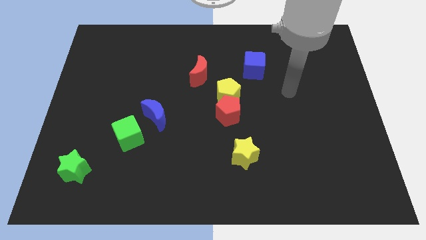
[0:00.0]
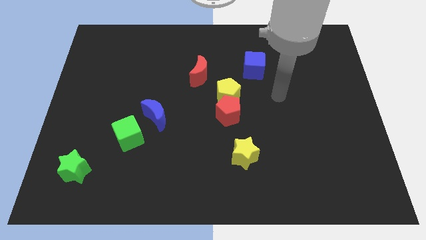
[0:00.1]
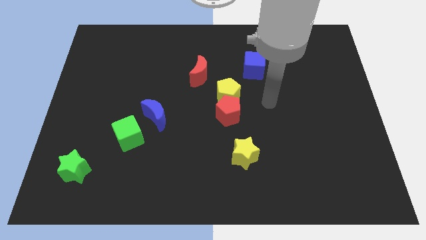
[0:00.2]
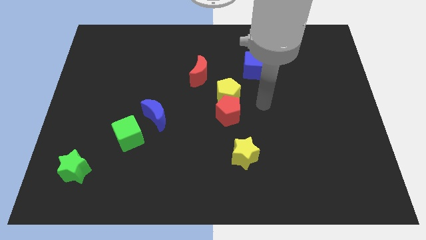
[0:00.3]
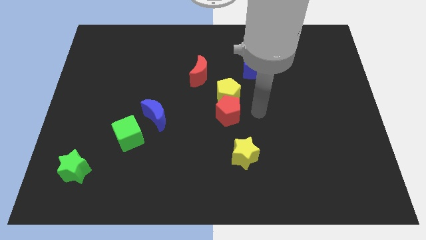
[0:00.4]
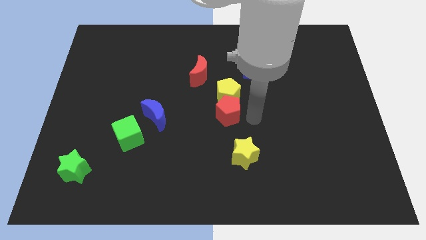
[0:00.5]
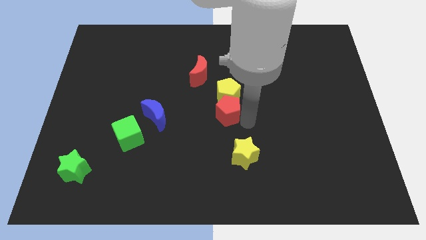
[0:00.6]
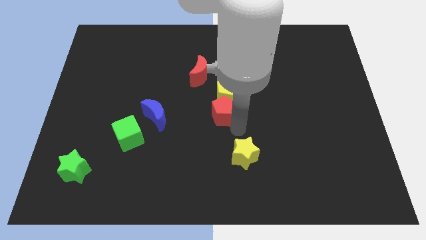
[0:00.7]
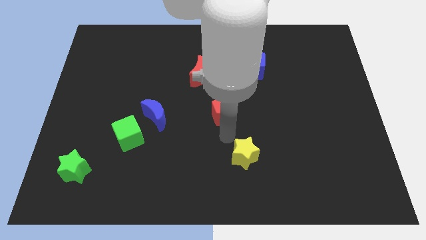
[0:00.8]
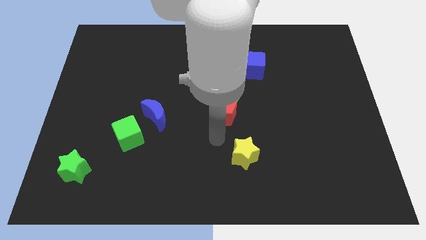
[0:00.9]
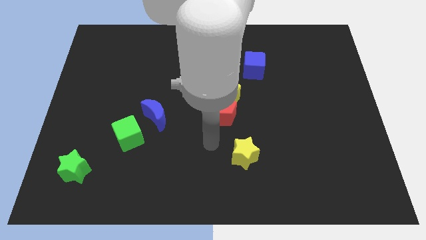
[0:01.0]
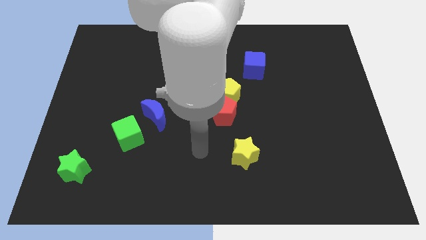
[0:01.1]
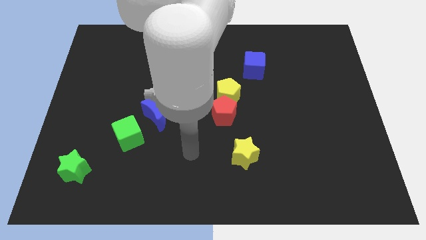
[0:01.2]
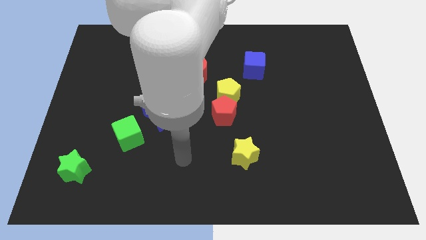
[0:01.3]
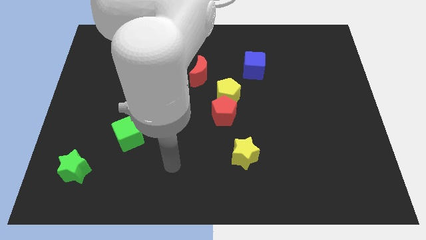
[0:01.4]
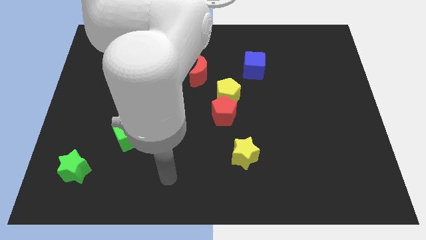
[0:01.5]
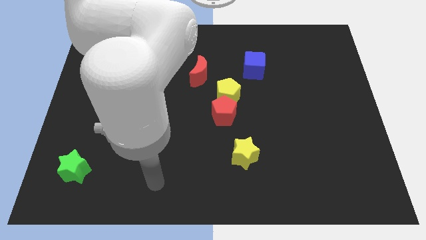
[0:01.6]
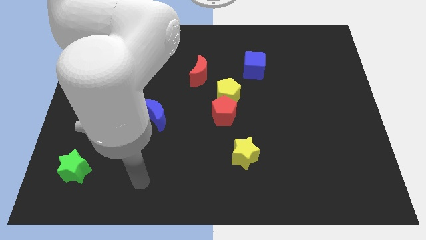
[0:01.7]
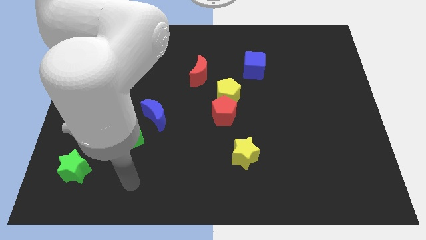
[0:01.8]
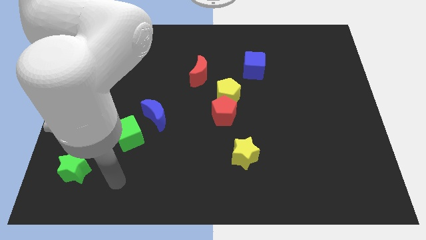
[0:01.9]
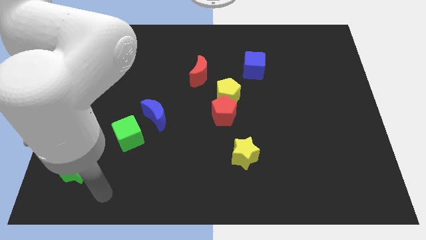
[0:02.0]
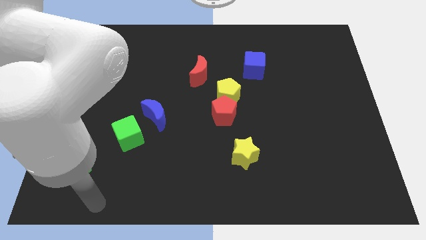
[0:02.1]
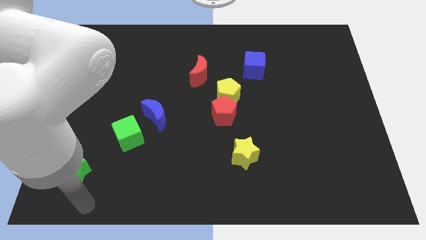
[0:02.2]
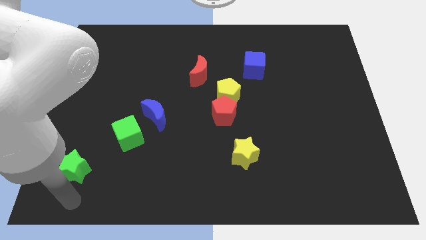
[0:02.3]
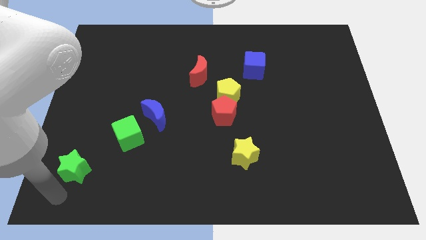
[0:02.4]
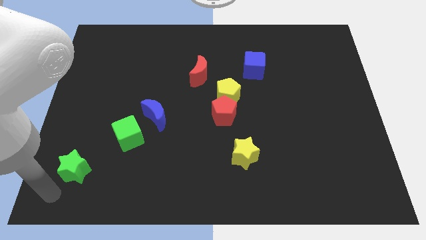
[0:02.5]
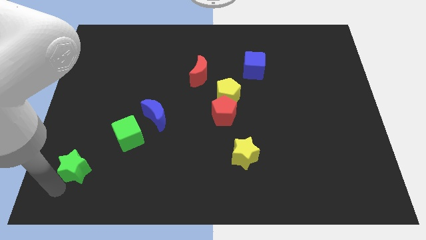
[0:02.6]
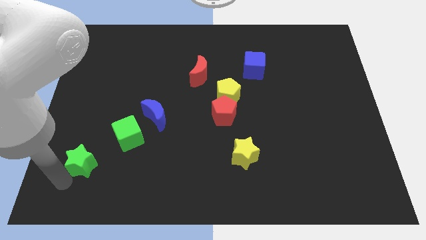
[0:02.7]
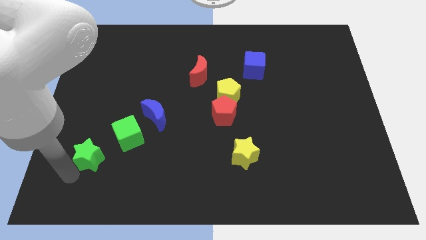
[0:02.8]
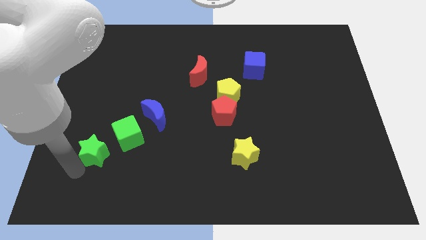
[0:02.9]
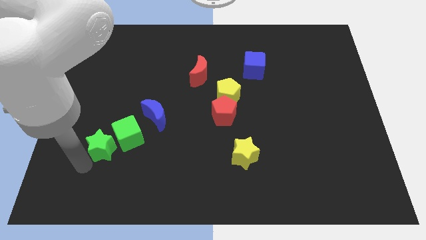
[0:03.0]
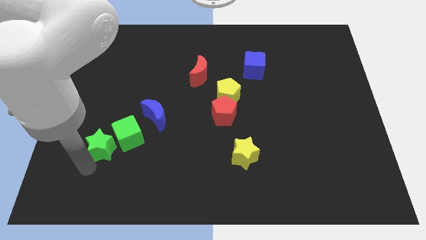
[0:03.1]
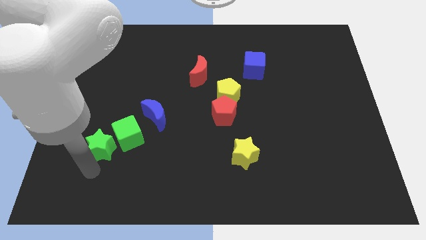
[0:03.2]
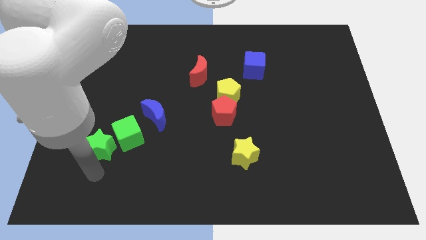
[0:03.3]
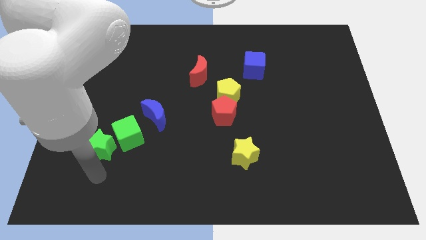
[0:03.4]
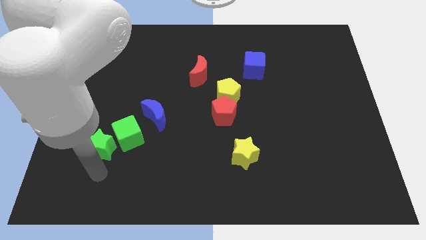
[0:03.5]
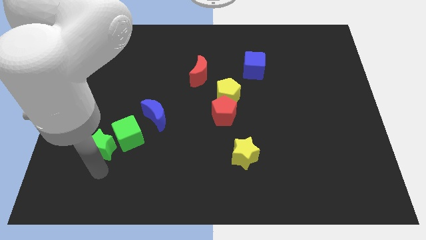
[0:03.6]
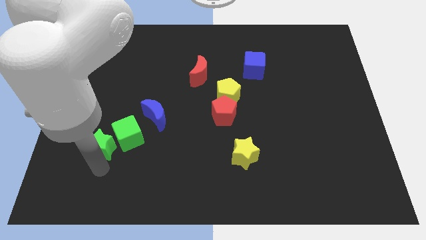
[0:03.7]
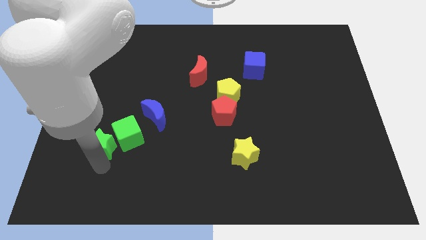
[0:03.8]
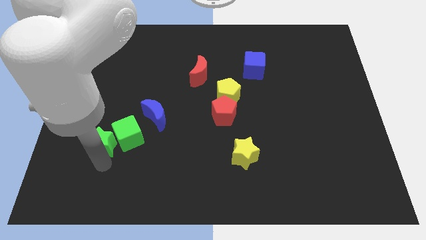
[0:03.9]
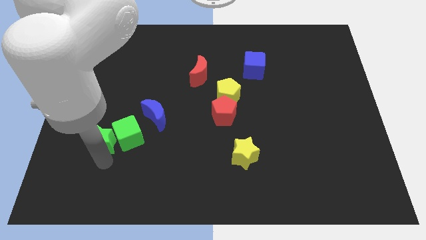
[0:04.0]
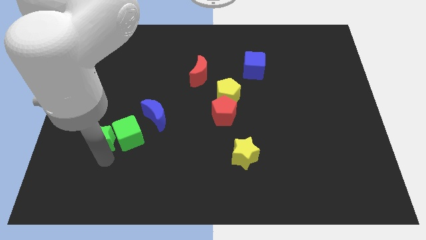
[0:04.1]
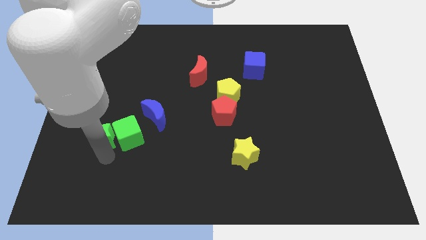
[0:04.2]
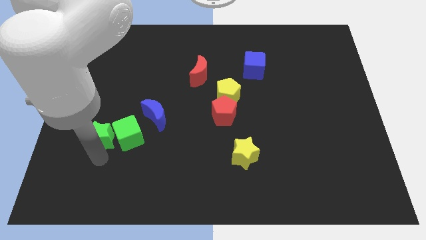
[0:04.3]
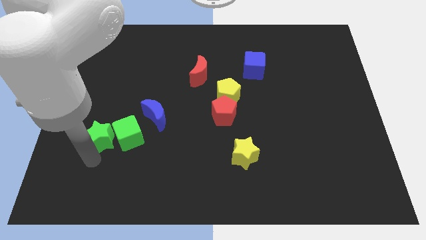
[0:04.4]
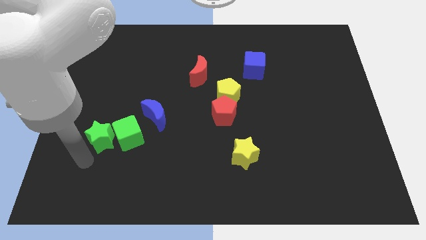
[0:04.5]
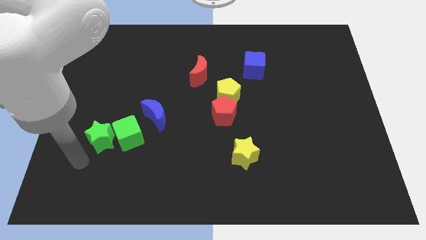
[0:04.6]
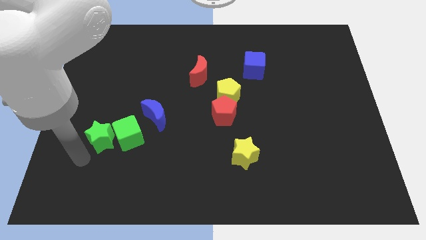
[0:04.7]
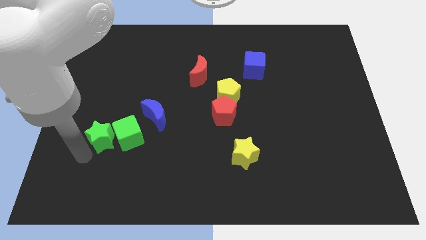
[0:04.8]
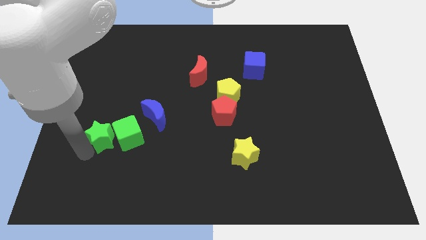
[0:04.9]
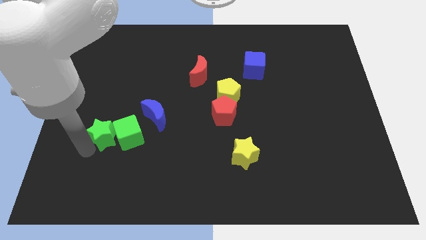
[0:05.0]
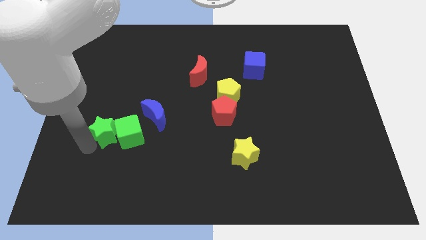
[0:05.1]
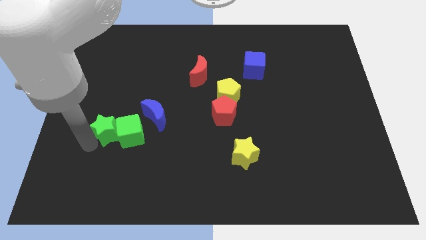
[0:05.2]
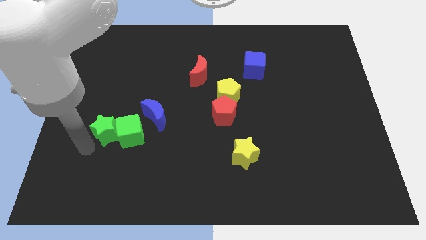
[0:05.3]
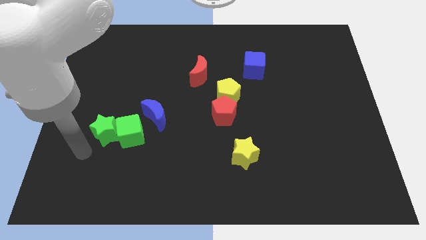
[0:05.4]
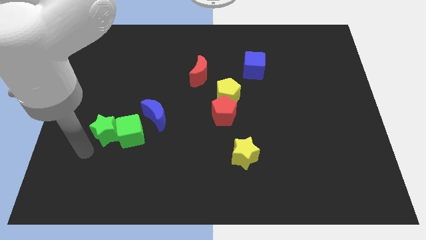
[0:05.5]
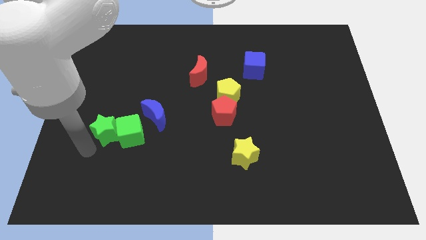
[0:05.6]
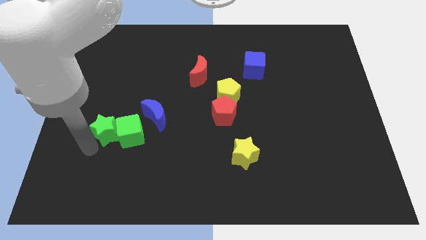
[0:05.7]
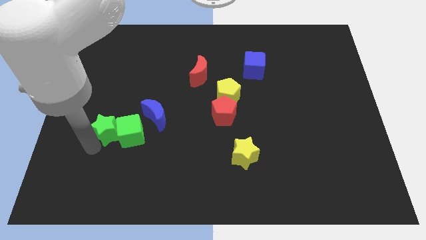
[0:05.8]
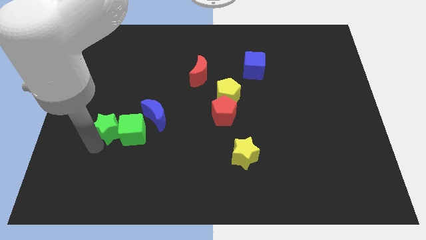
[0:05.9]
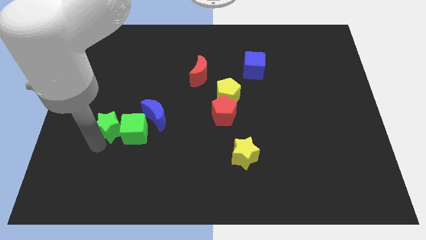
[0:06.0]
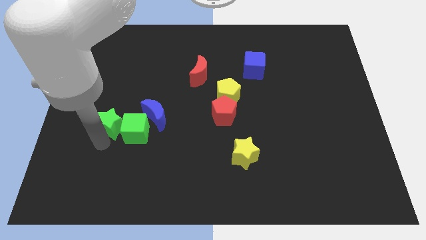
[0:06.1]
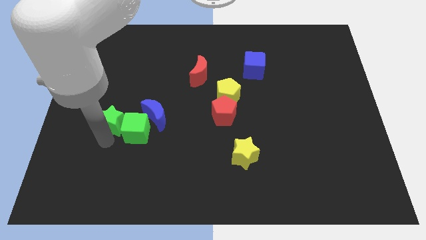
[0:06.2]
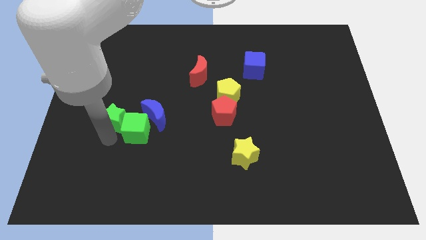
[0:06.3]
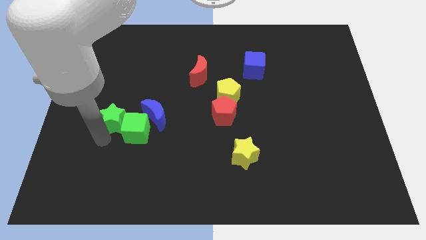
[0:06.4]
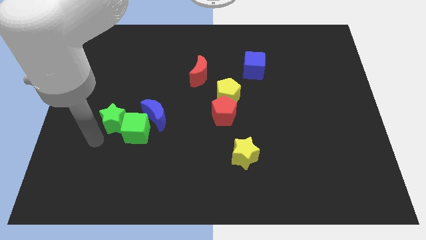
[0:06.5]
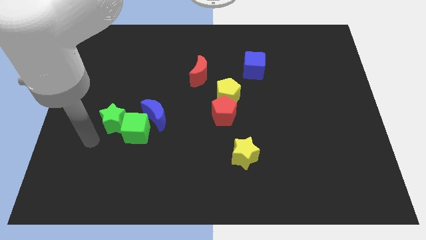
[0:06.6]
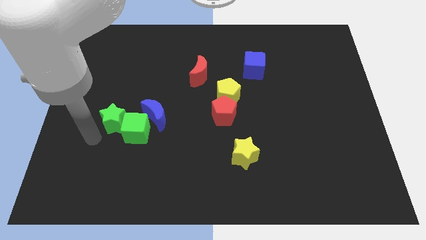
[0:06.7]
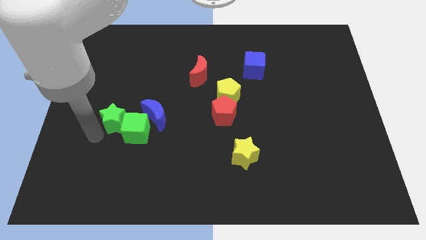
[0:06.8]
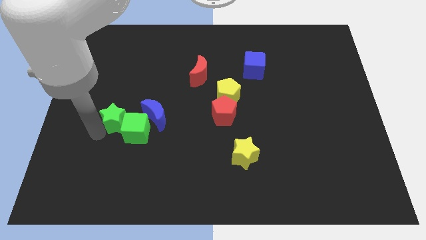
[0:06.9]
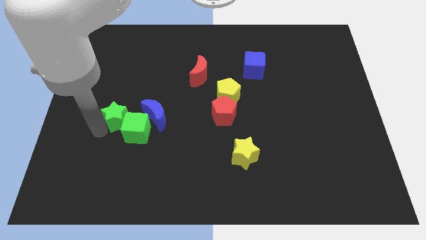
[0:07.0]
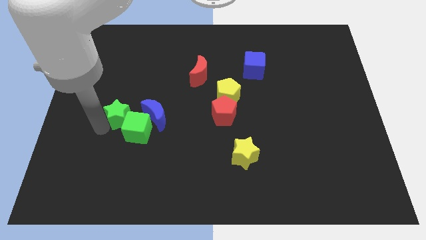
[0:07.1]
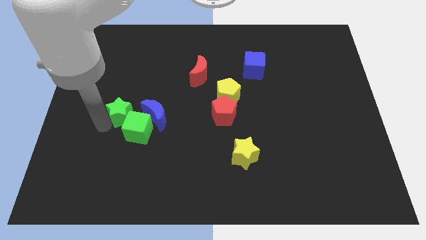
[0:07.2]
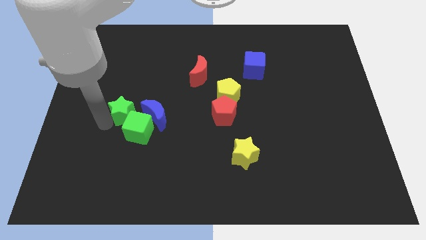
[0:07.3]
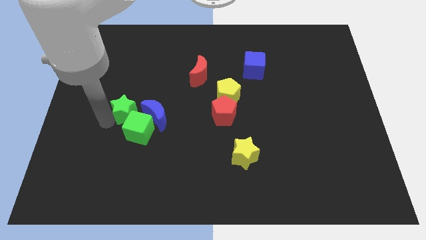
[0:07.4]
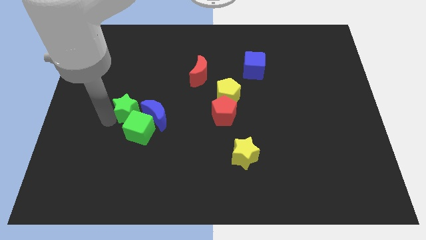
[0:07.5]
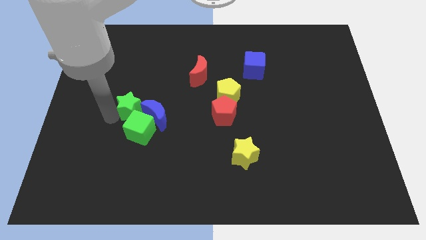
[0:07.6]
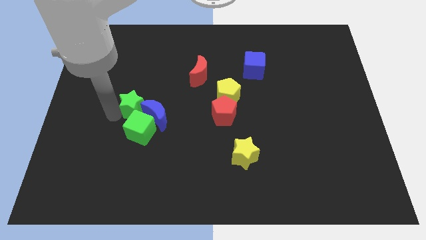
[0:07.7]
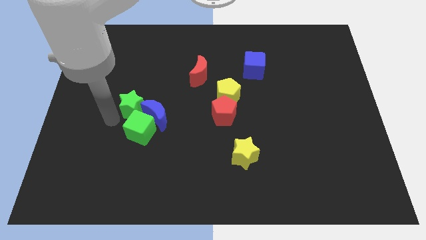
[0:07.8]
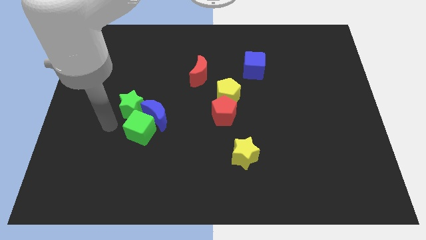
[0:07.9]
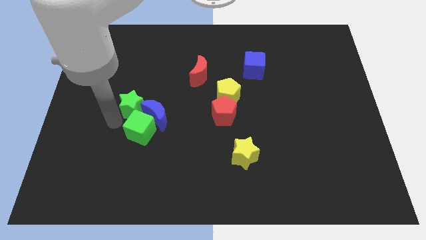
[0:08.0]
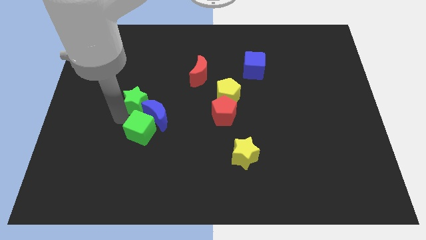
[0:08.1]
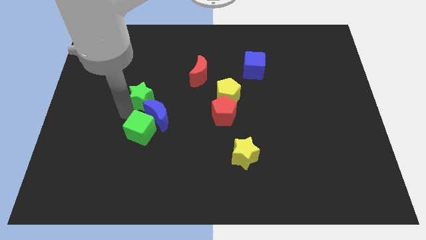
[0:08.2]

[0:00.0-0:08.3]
move the green star up and to the right
